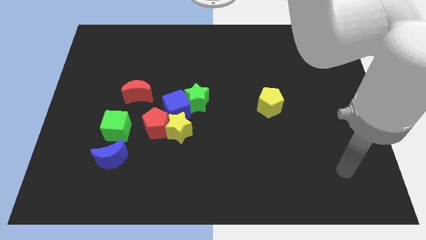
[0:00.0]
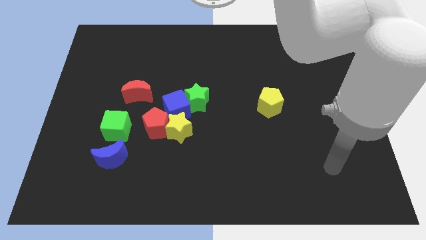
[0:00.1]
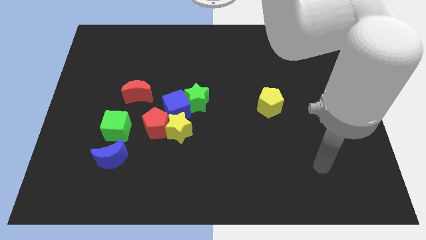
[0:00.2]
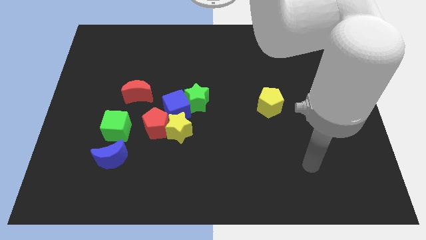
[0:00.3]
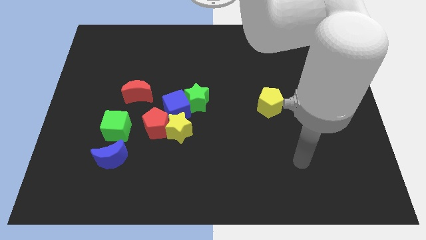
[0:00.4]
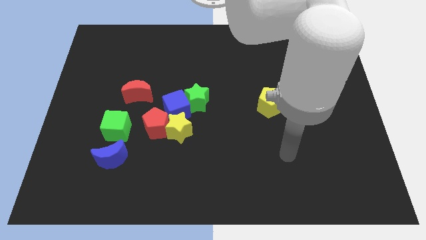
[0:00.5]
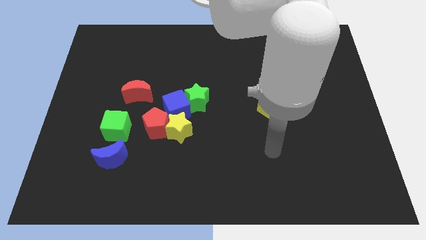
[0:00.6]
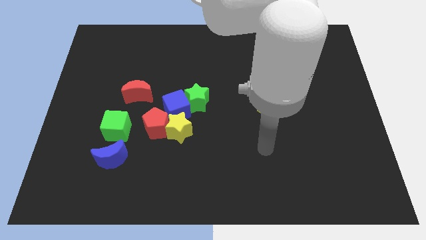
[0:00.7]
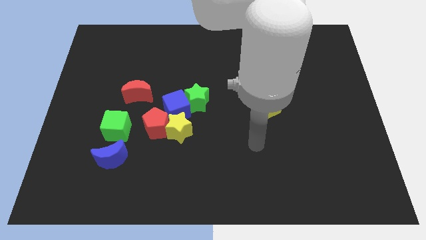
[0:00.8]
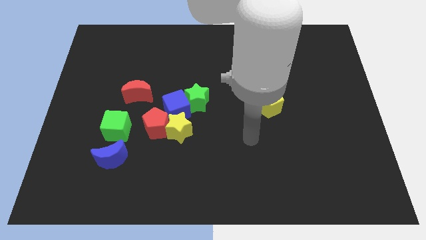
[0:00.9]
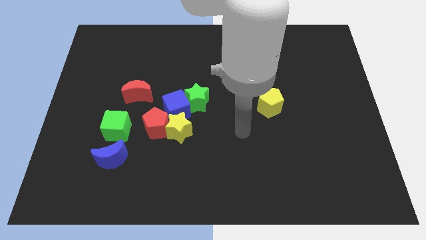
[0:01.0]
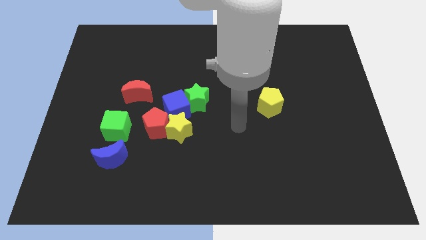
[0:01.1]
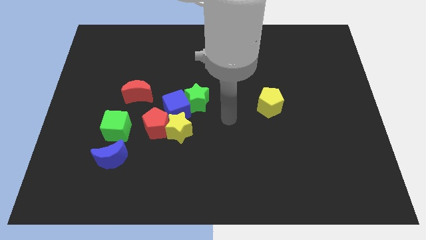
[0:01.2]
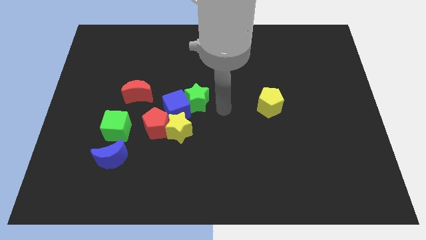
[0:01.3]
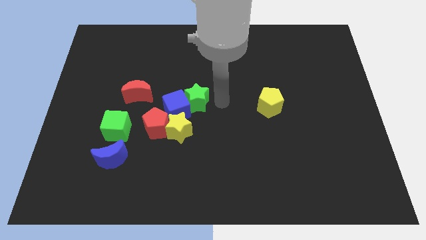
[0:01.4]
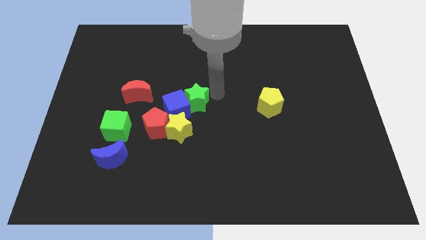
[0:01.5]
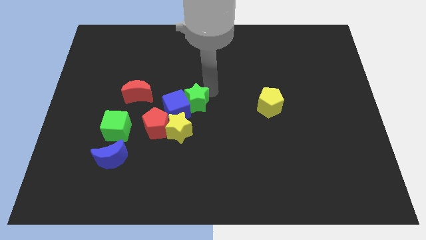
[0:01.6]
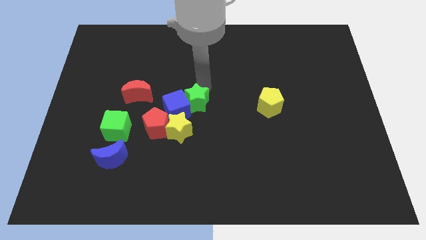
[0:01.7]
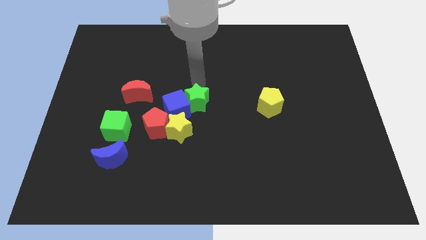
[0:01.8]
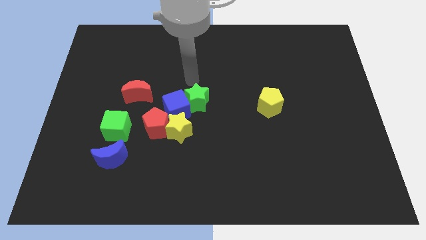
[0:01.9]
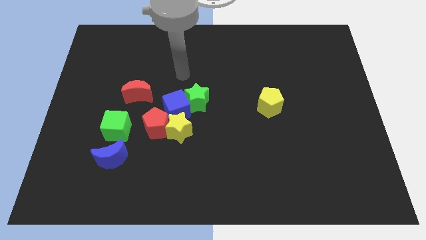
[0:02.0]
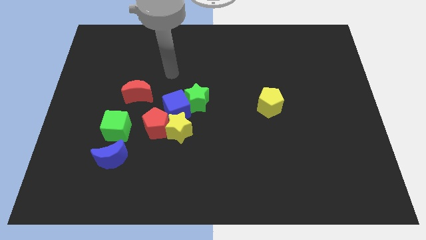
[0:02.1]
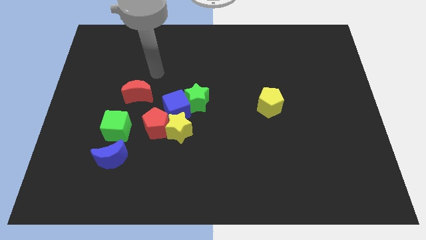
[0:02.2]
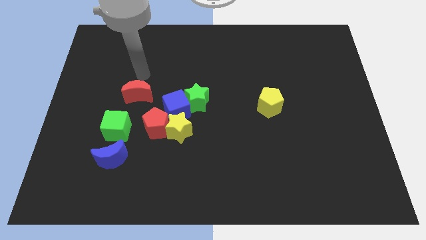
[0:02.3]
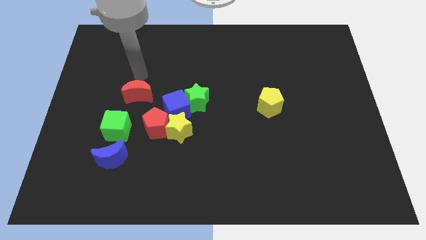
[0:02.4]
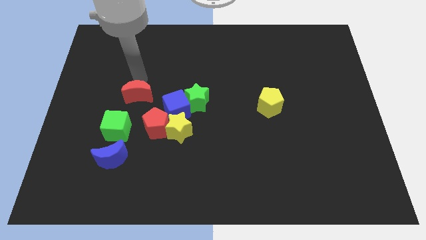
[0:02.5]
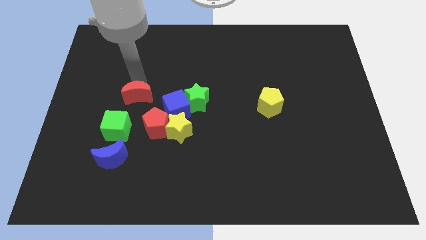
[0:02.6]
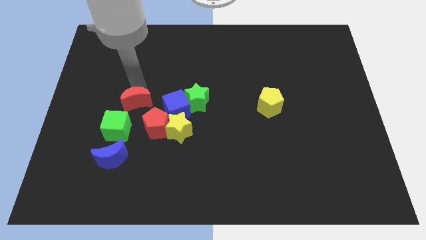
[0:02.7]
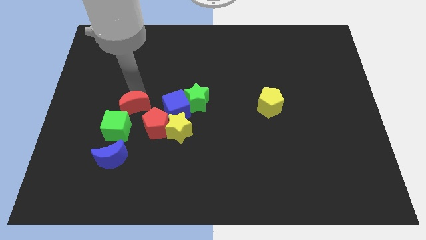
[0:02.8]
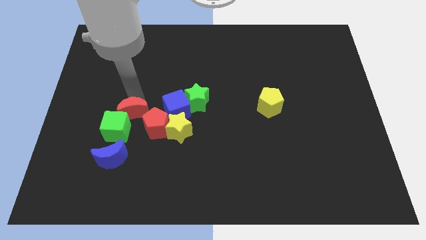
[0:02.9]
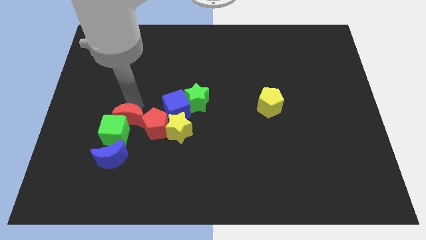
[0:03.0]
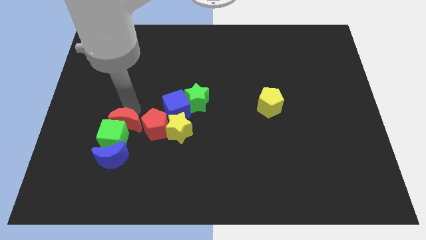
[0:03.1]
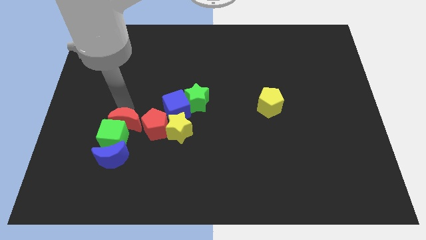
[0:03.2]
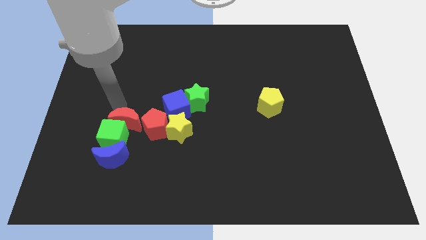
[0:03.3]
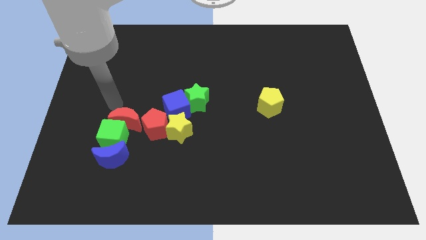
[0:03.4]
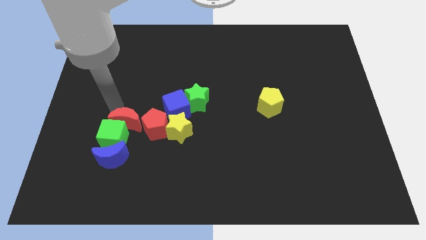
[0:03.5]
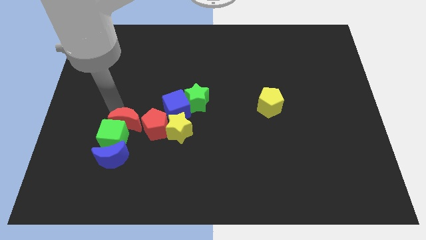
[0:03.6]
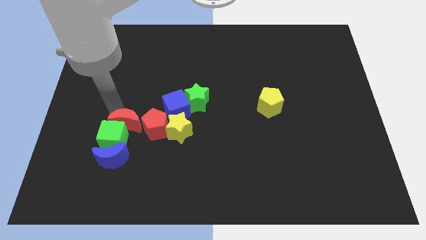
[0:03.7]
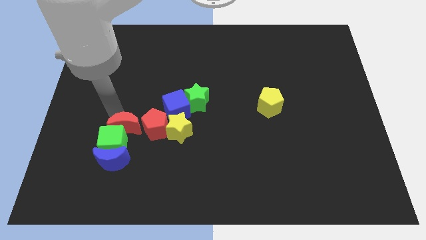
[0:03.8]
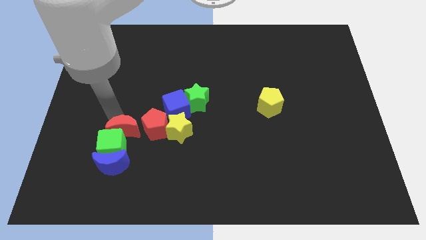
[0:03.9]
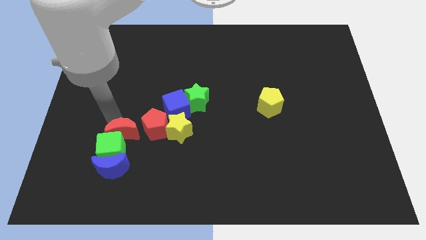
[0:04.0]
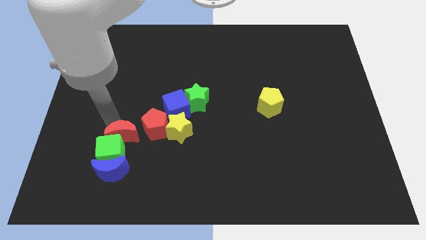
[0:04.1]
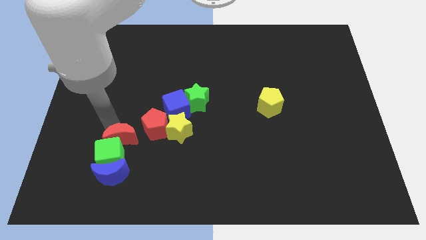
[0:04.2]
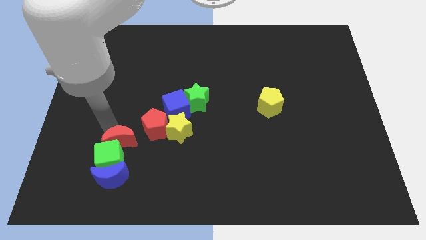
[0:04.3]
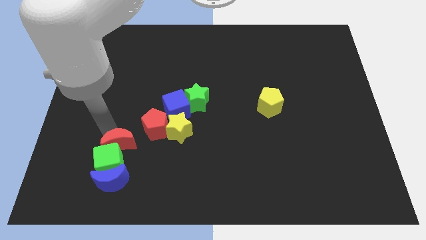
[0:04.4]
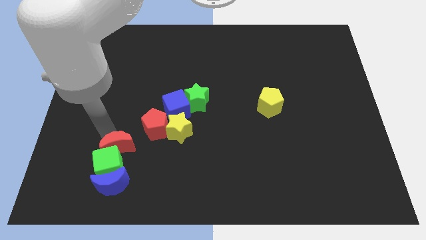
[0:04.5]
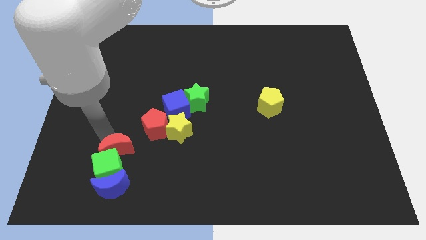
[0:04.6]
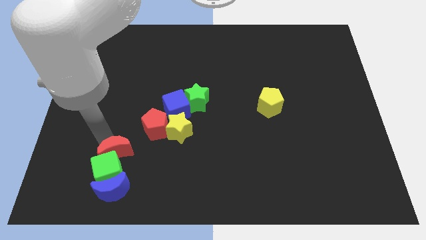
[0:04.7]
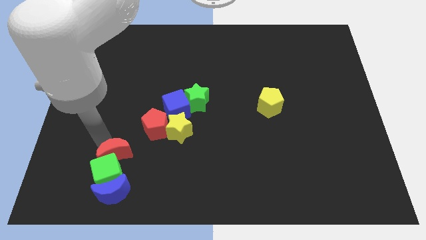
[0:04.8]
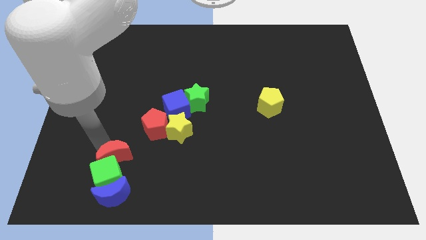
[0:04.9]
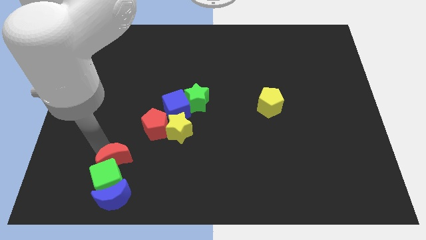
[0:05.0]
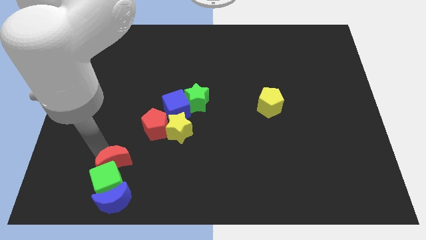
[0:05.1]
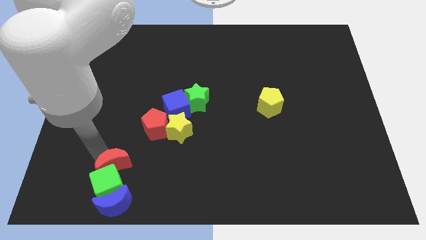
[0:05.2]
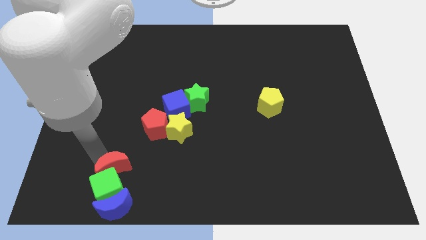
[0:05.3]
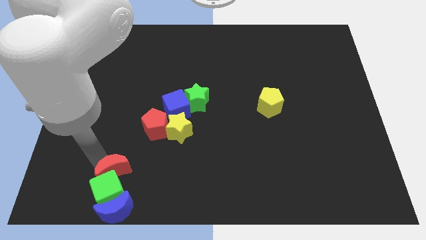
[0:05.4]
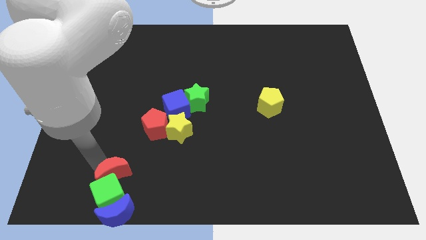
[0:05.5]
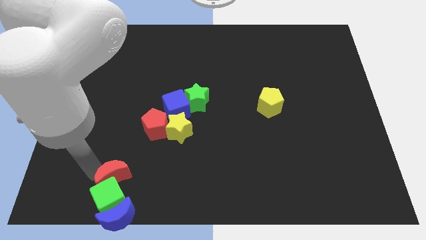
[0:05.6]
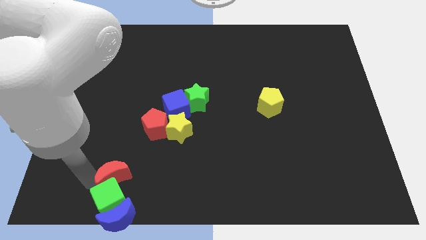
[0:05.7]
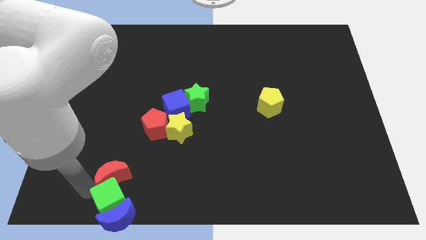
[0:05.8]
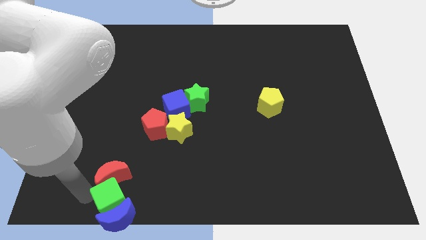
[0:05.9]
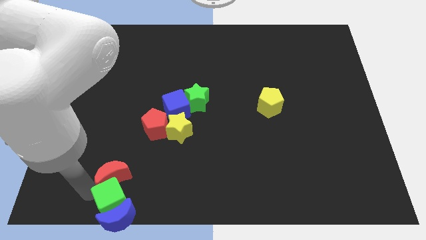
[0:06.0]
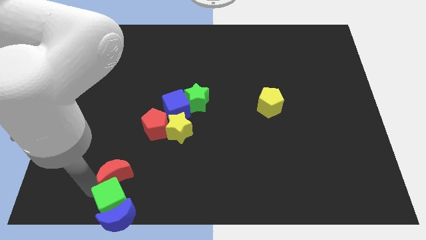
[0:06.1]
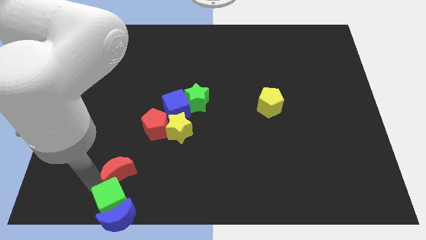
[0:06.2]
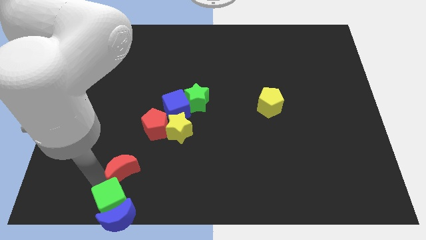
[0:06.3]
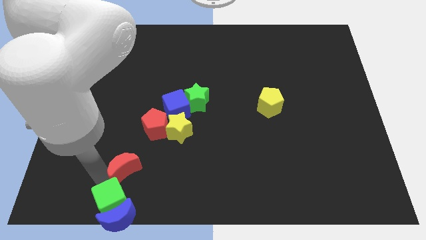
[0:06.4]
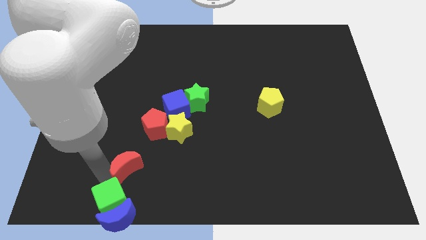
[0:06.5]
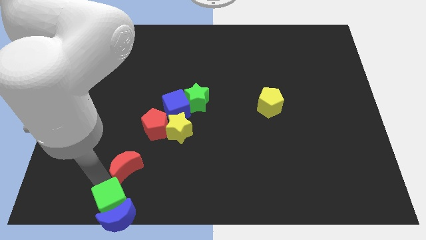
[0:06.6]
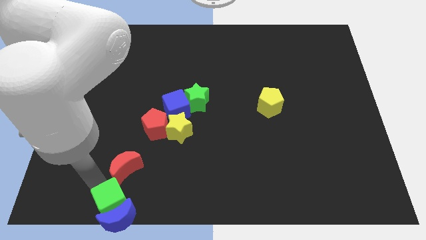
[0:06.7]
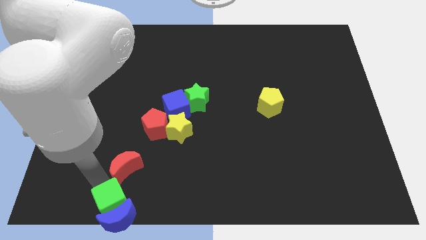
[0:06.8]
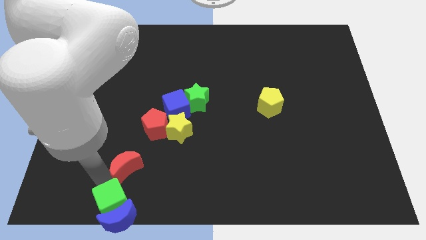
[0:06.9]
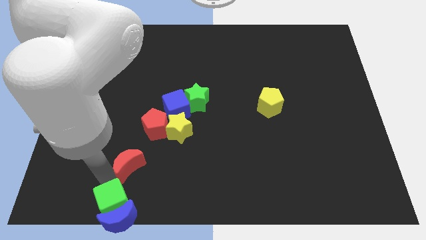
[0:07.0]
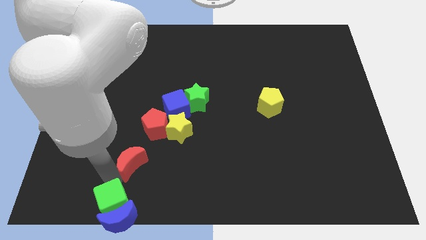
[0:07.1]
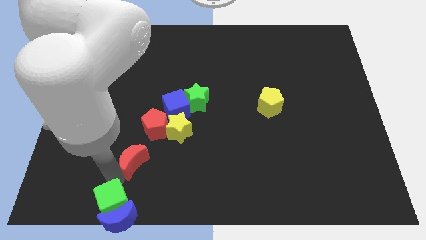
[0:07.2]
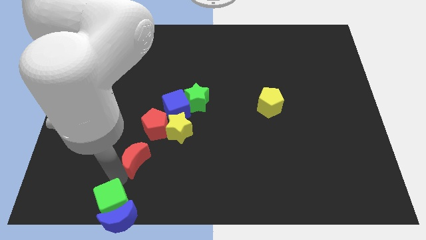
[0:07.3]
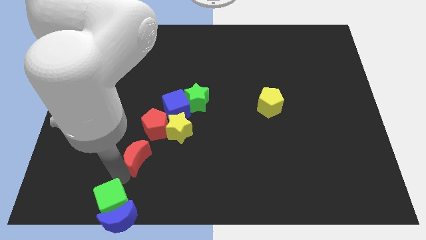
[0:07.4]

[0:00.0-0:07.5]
move the red moon downwards and to the right diagonally a little bit

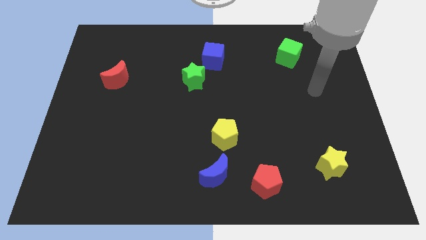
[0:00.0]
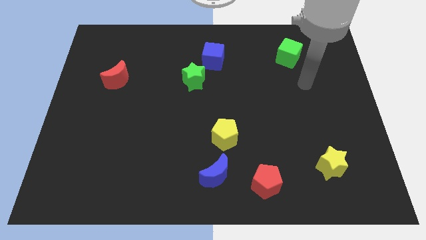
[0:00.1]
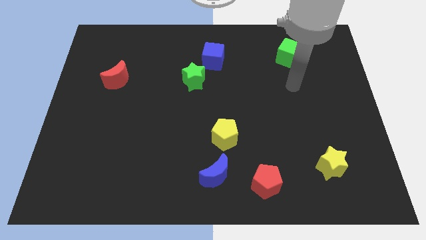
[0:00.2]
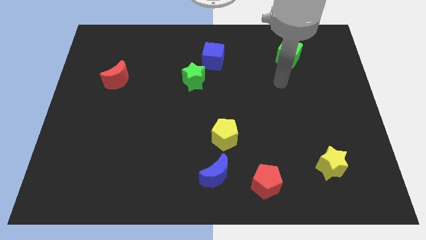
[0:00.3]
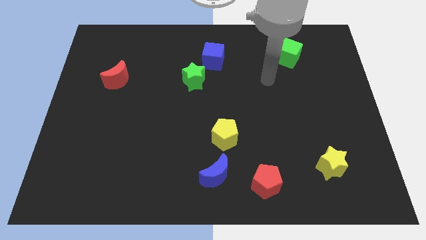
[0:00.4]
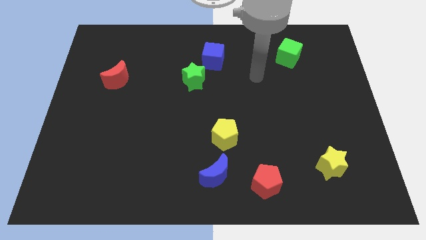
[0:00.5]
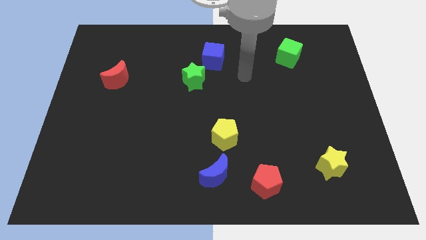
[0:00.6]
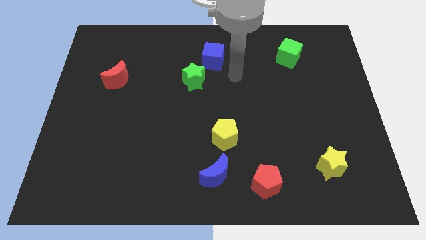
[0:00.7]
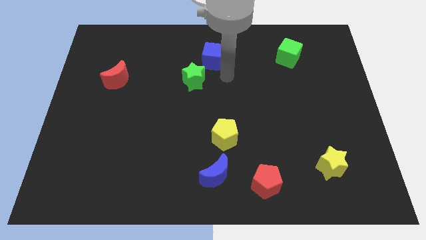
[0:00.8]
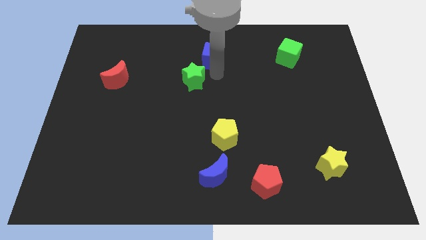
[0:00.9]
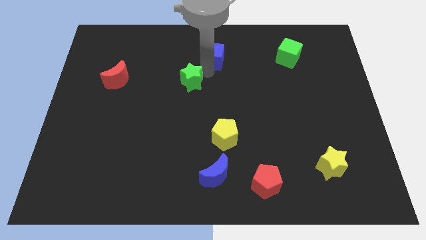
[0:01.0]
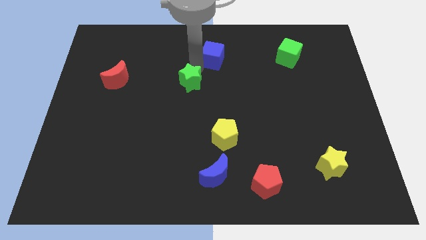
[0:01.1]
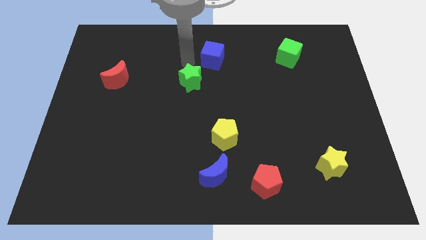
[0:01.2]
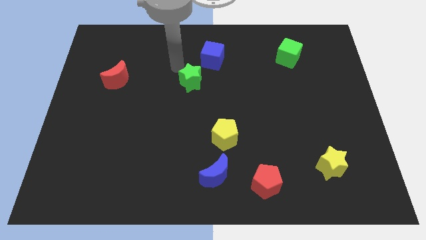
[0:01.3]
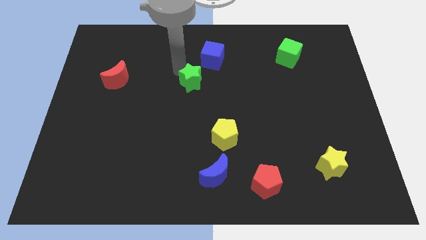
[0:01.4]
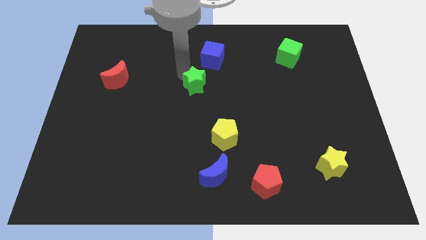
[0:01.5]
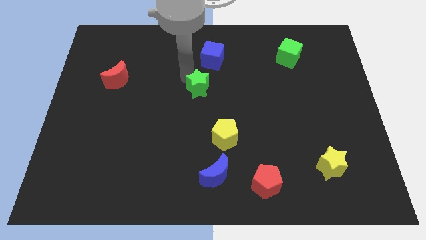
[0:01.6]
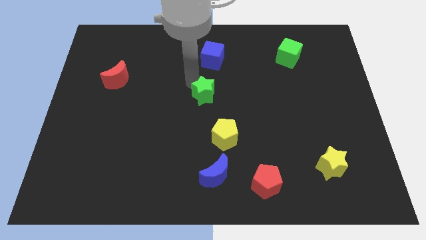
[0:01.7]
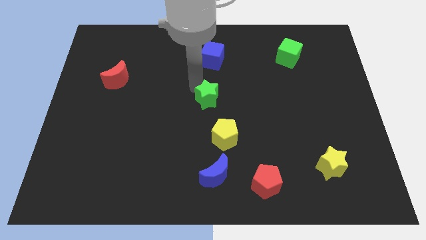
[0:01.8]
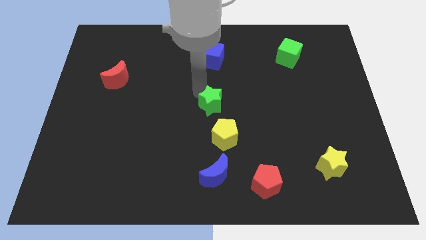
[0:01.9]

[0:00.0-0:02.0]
move the green star a bit diagonally down and right
